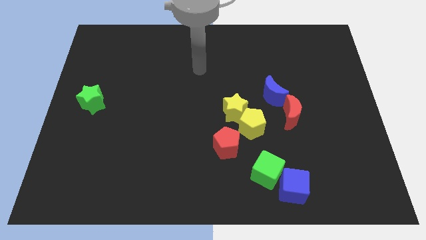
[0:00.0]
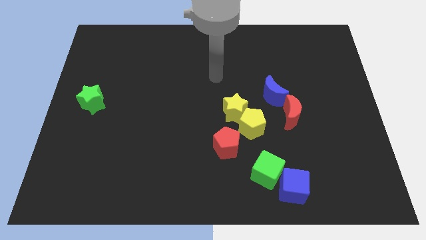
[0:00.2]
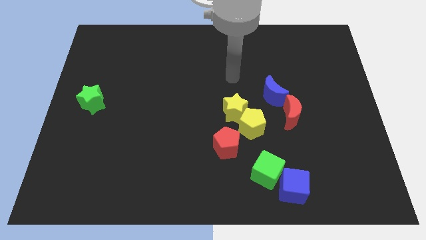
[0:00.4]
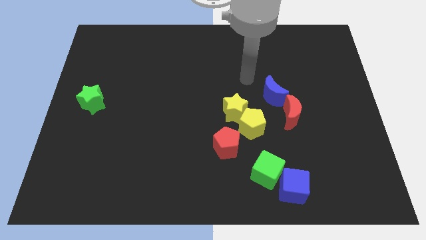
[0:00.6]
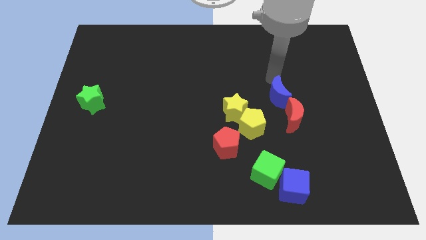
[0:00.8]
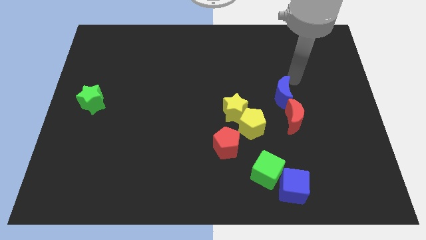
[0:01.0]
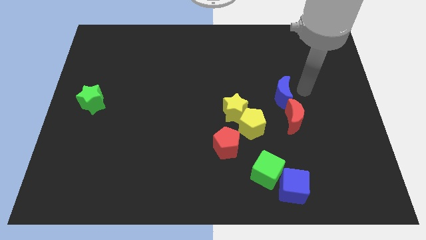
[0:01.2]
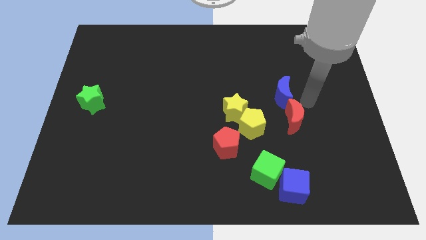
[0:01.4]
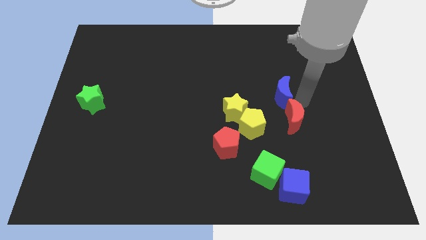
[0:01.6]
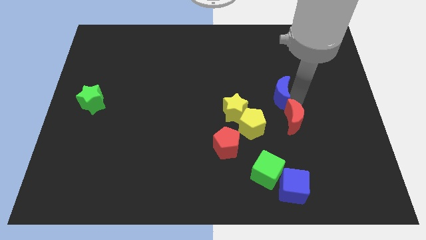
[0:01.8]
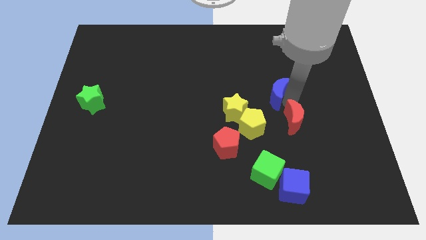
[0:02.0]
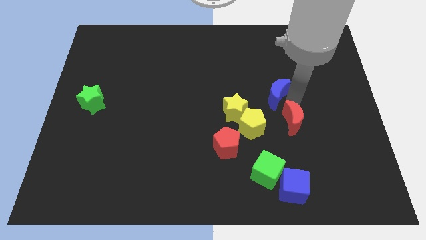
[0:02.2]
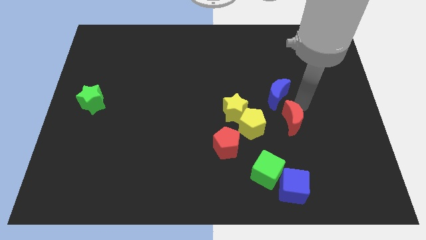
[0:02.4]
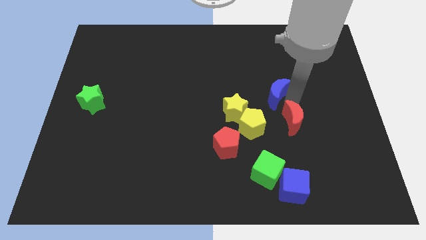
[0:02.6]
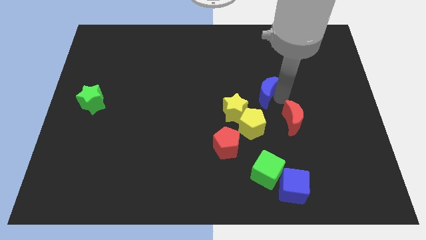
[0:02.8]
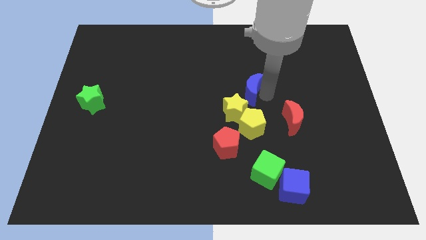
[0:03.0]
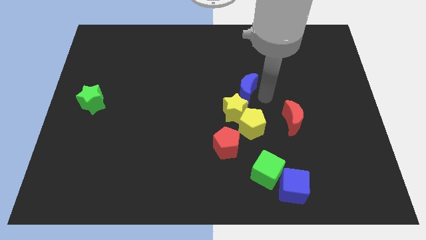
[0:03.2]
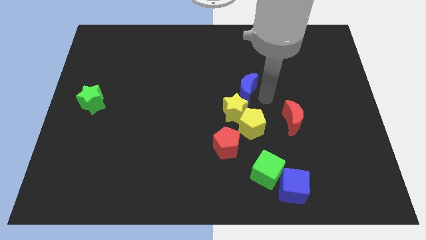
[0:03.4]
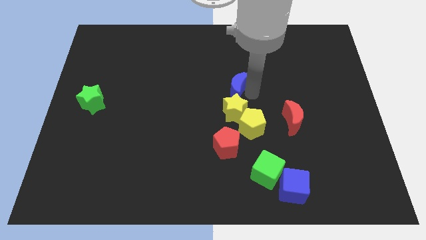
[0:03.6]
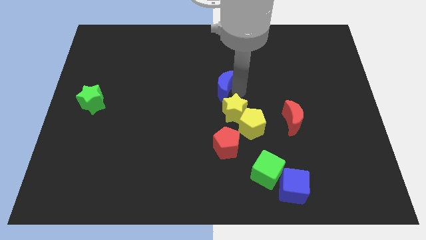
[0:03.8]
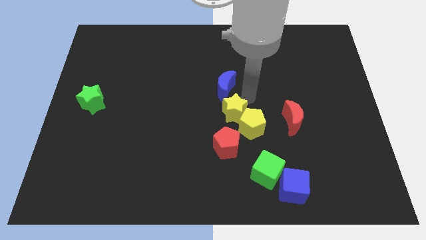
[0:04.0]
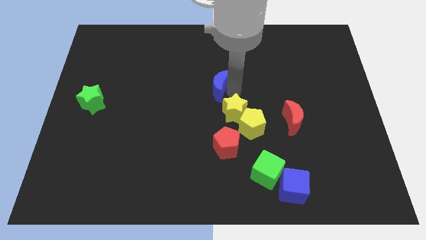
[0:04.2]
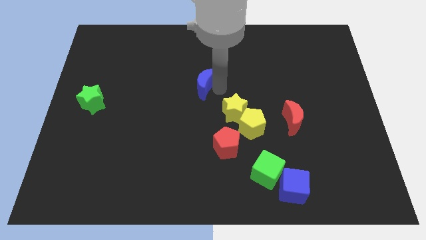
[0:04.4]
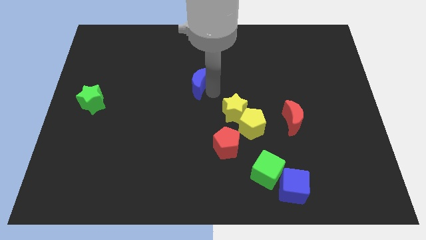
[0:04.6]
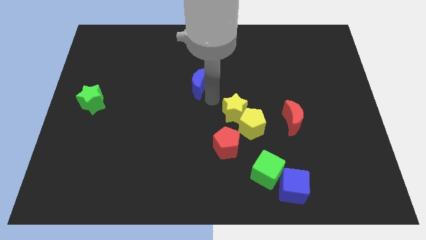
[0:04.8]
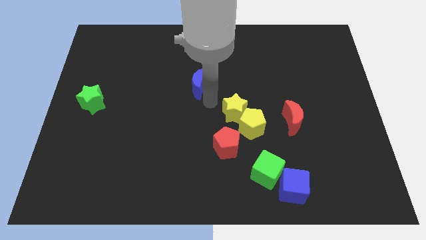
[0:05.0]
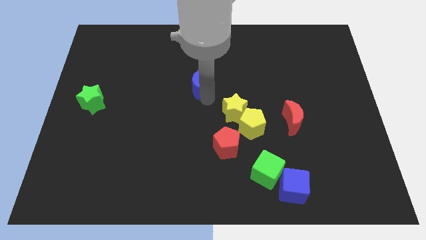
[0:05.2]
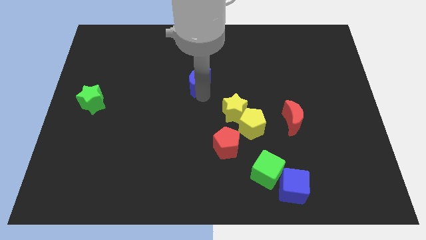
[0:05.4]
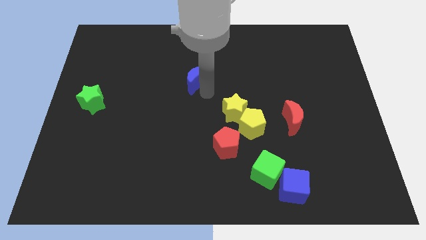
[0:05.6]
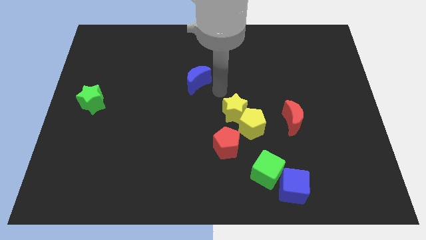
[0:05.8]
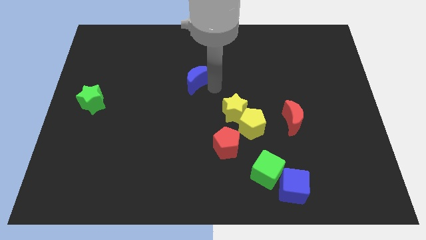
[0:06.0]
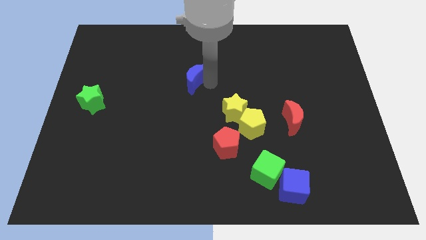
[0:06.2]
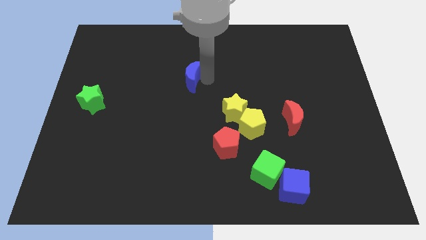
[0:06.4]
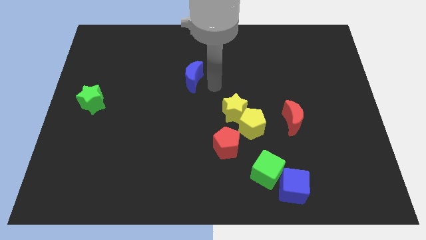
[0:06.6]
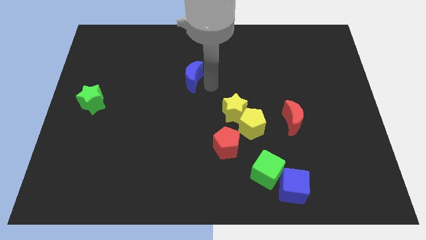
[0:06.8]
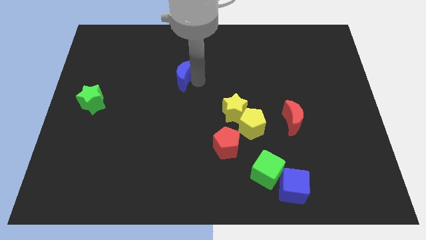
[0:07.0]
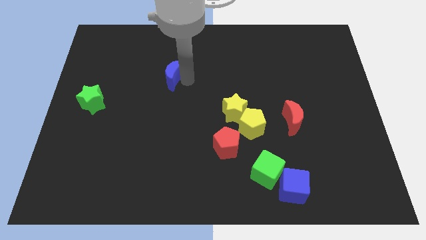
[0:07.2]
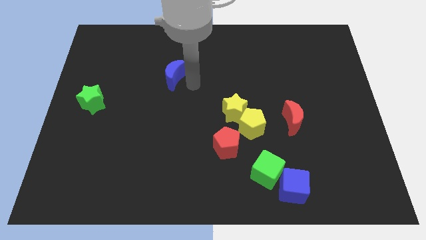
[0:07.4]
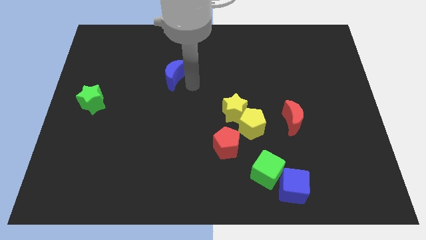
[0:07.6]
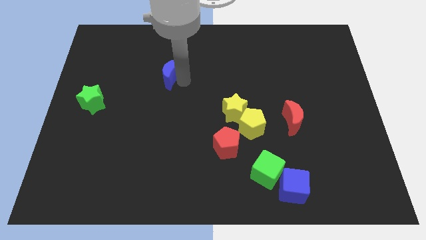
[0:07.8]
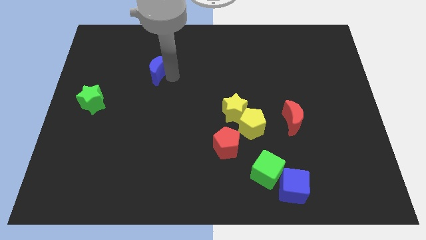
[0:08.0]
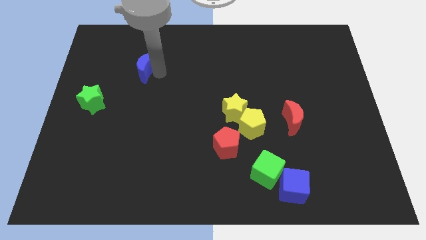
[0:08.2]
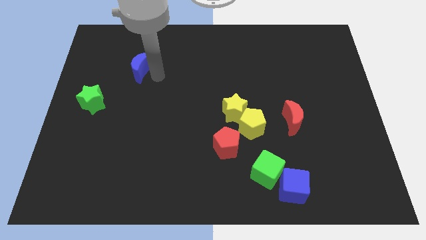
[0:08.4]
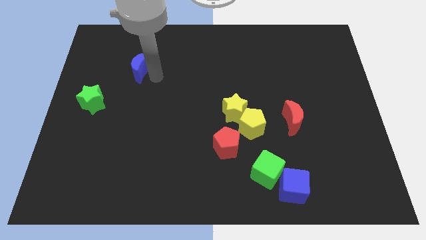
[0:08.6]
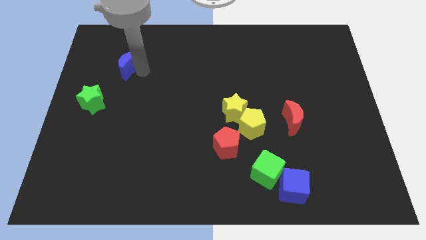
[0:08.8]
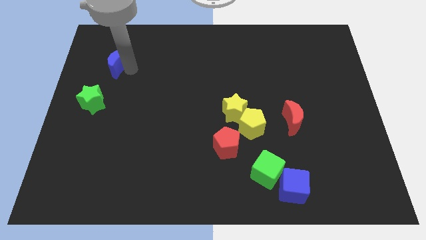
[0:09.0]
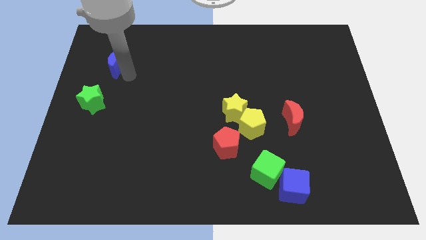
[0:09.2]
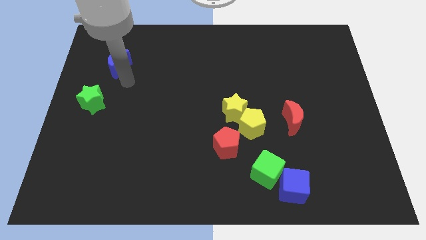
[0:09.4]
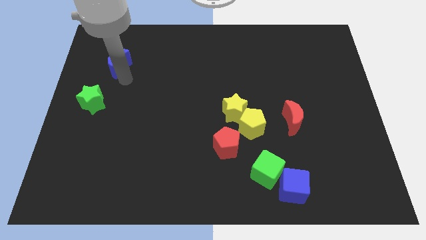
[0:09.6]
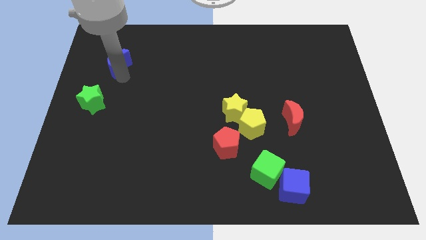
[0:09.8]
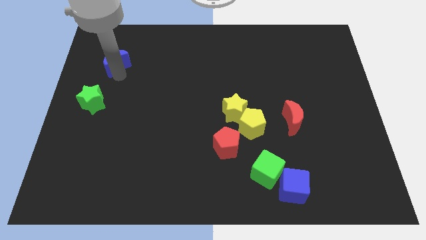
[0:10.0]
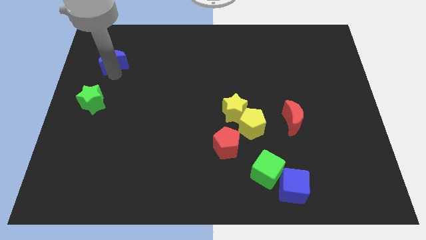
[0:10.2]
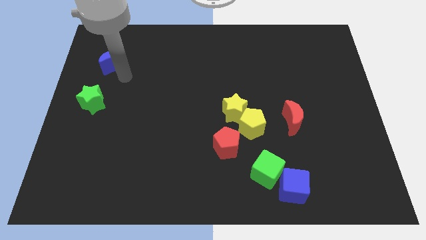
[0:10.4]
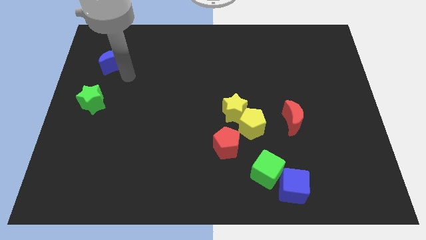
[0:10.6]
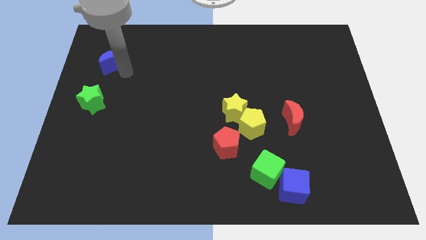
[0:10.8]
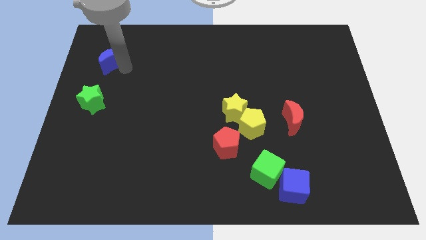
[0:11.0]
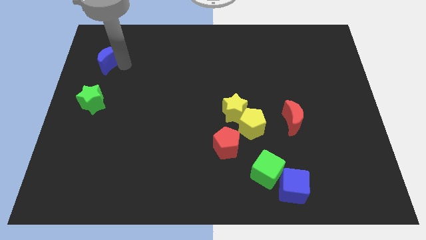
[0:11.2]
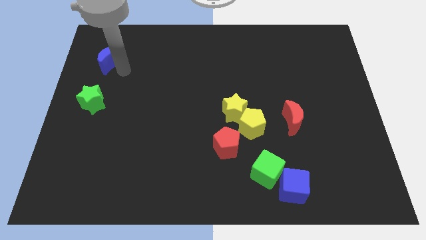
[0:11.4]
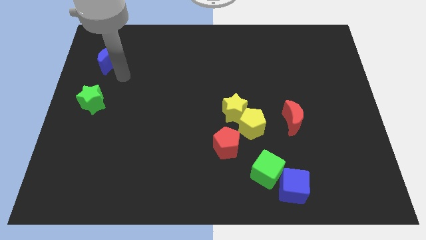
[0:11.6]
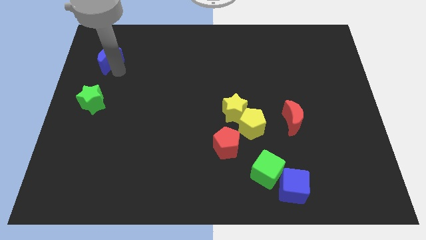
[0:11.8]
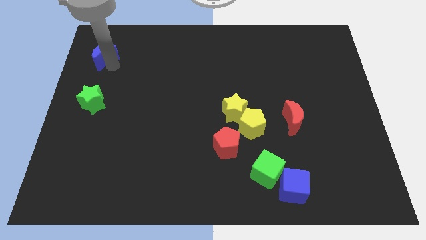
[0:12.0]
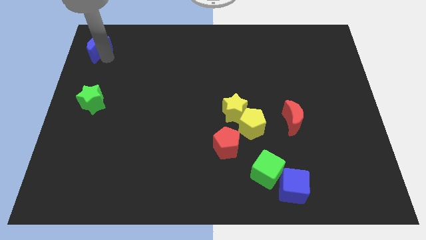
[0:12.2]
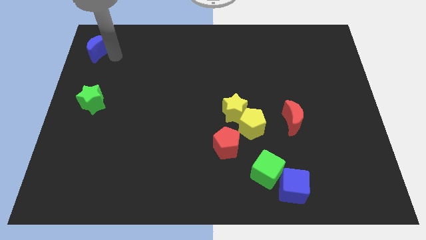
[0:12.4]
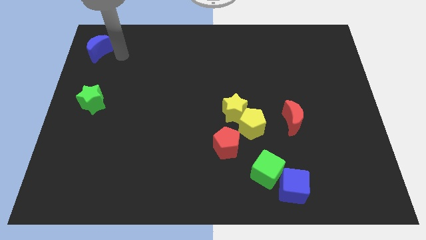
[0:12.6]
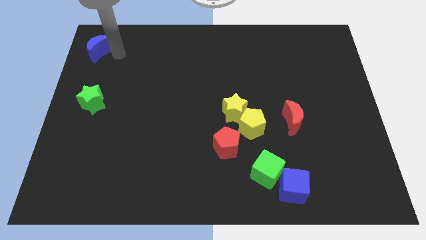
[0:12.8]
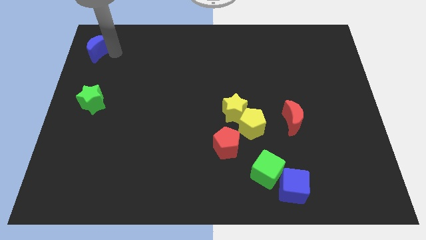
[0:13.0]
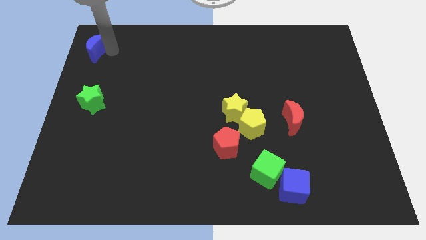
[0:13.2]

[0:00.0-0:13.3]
move the blue moon to the top left corner
